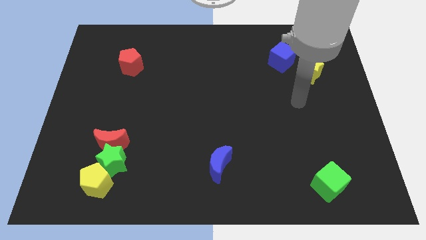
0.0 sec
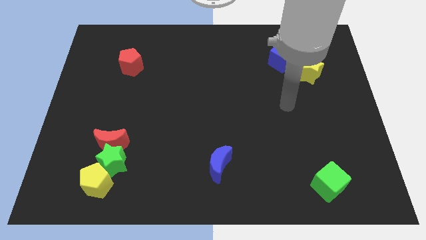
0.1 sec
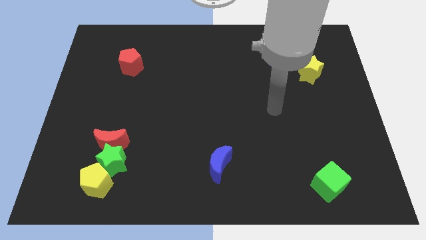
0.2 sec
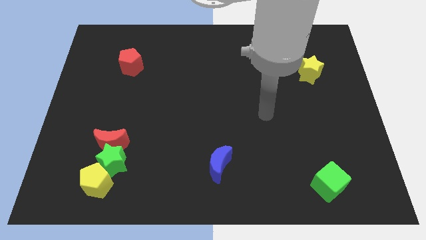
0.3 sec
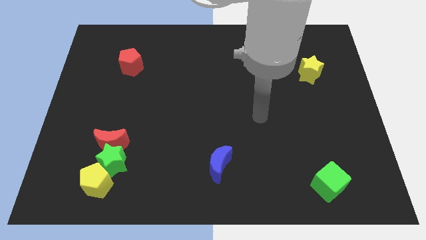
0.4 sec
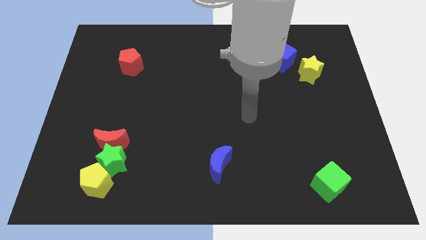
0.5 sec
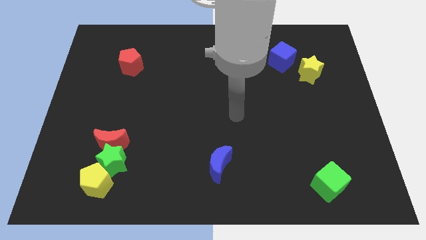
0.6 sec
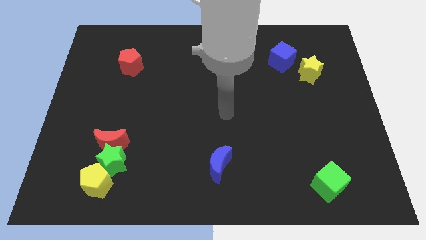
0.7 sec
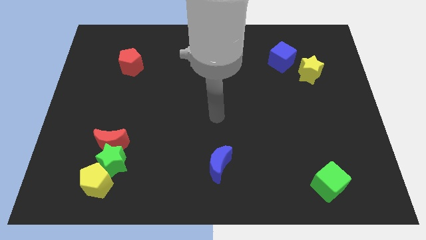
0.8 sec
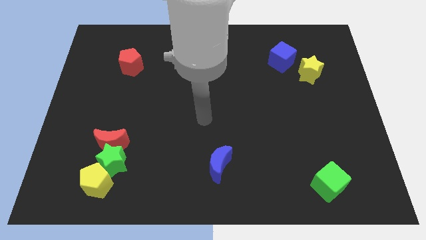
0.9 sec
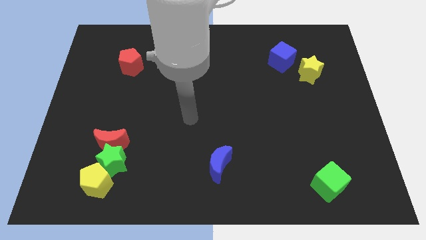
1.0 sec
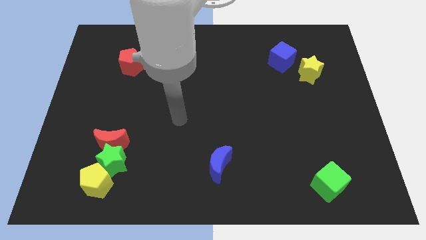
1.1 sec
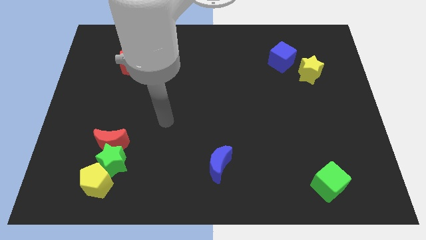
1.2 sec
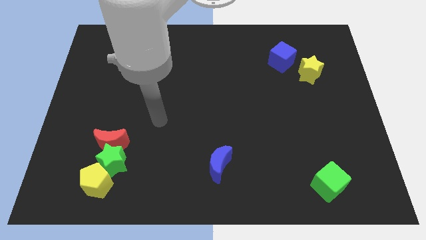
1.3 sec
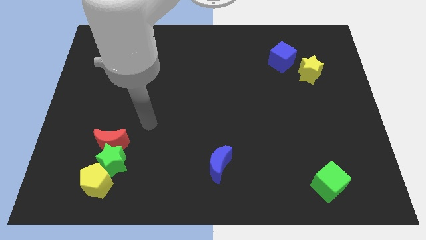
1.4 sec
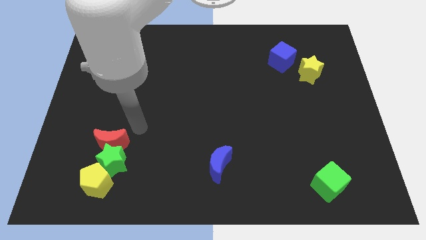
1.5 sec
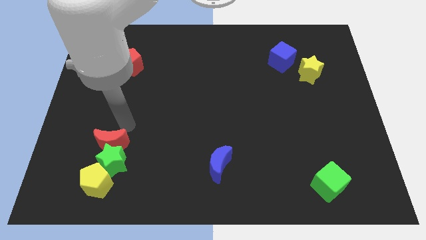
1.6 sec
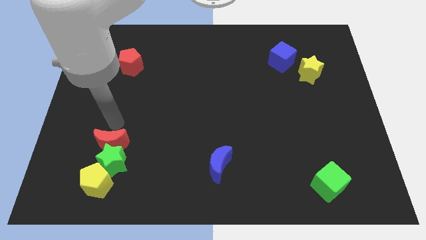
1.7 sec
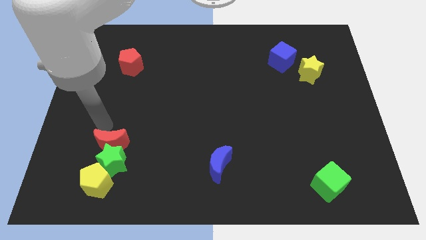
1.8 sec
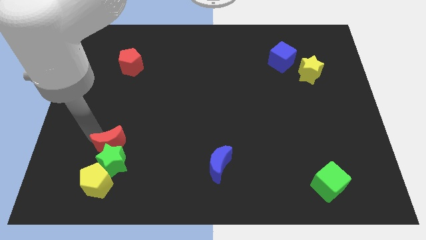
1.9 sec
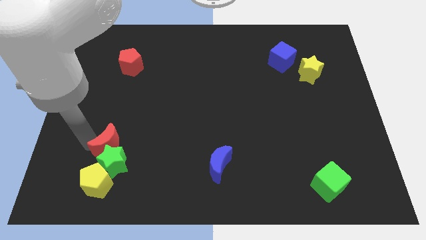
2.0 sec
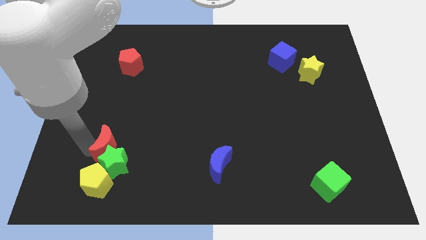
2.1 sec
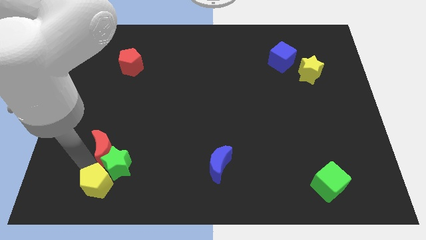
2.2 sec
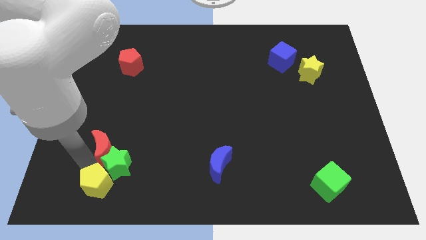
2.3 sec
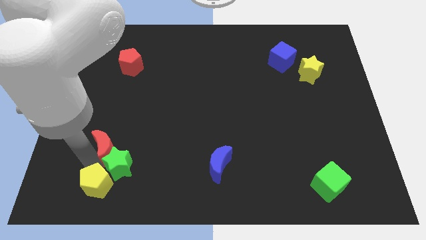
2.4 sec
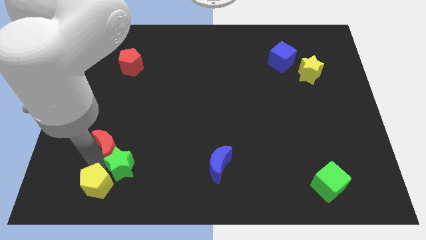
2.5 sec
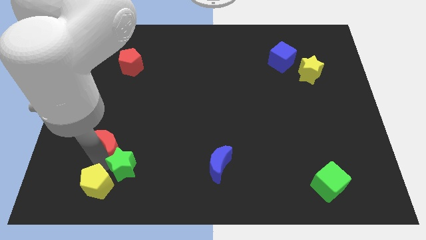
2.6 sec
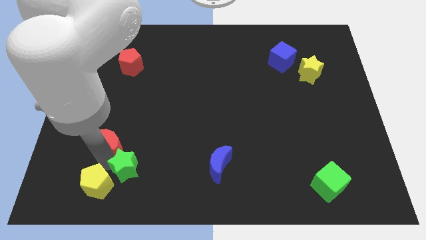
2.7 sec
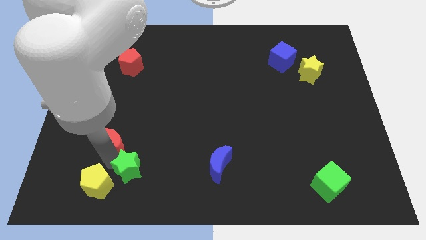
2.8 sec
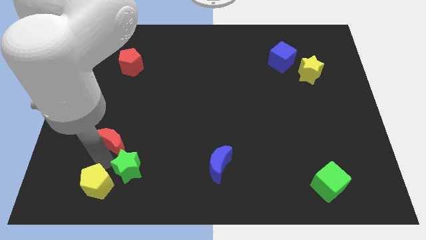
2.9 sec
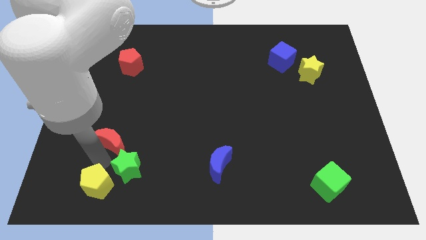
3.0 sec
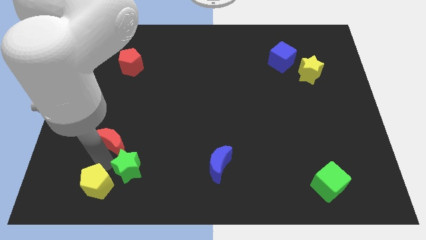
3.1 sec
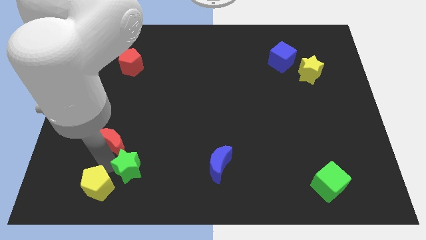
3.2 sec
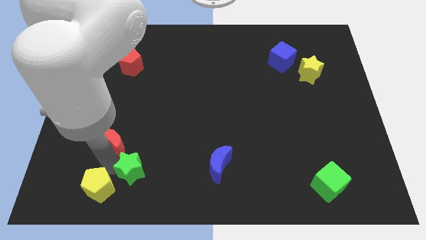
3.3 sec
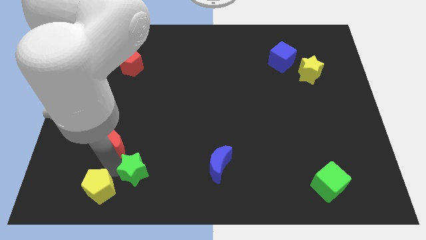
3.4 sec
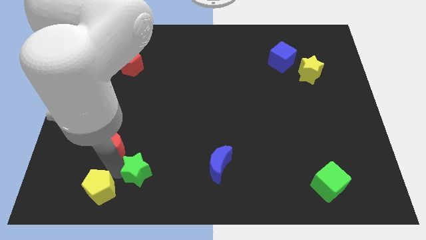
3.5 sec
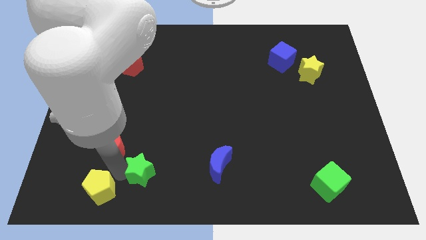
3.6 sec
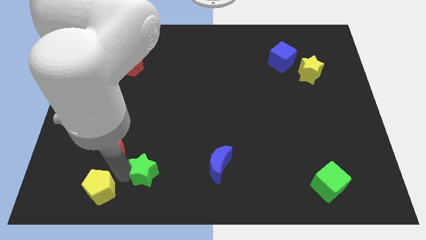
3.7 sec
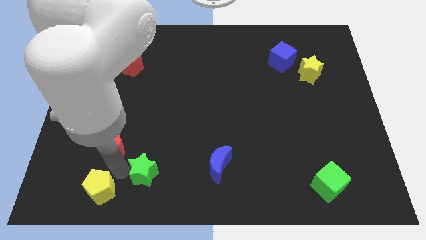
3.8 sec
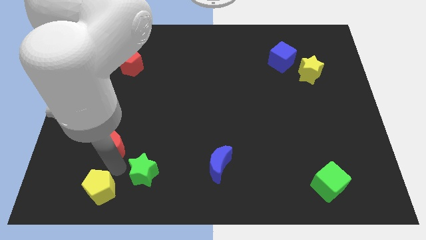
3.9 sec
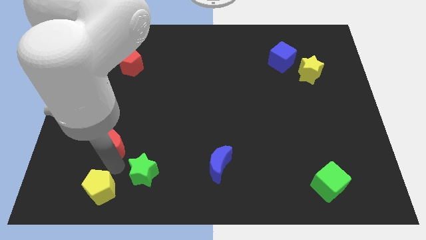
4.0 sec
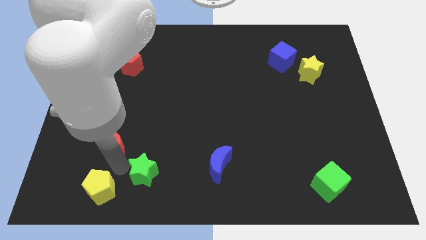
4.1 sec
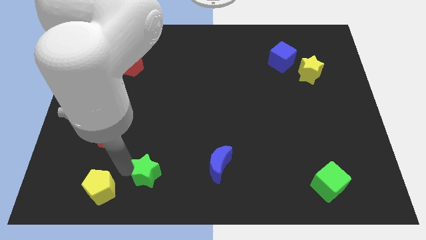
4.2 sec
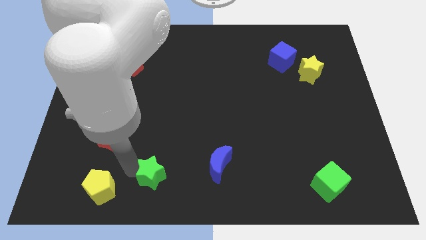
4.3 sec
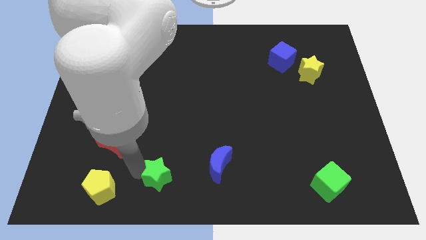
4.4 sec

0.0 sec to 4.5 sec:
move the green star away from the red moon and yellow pentagon

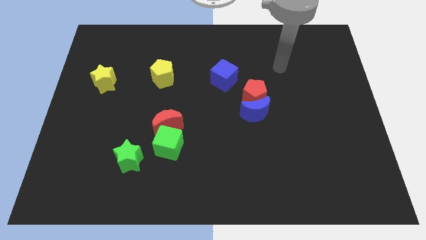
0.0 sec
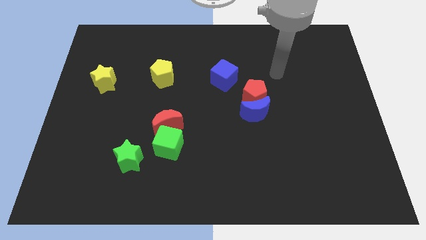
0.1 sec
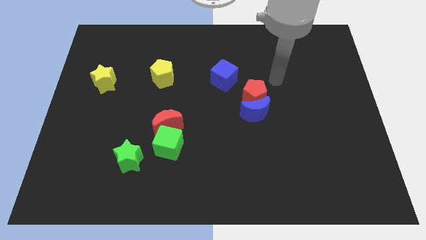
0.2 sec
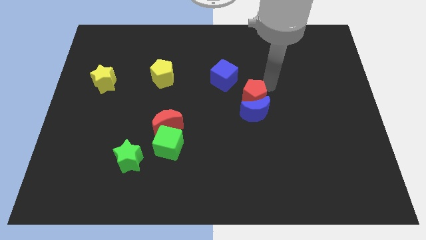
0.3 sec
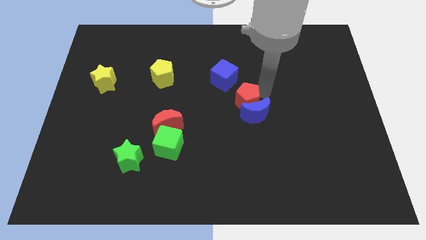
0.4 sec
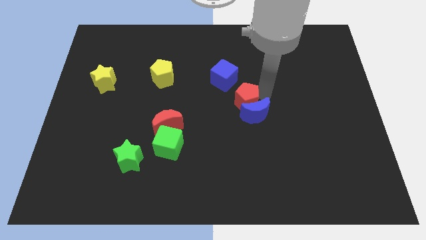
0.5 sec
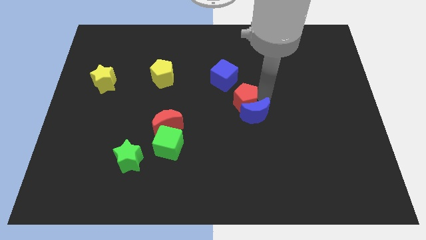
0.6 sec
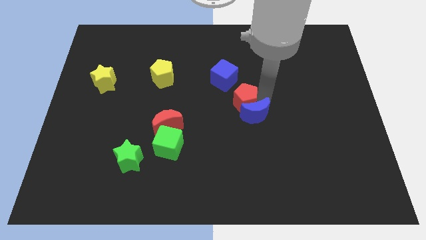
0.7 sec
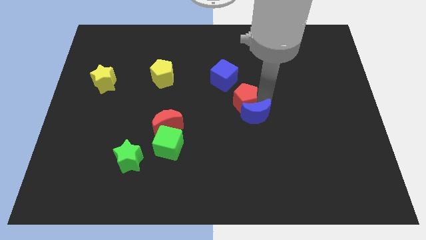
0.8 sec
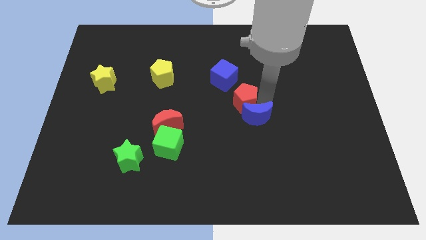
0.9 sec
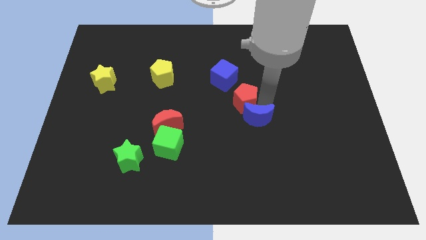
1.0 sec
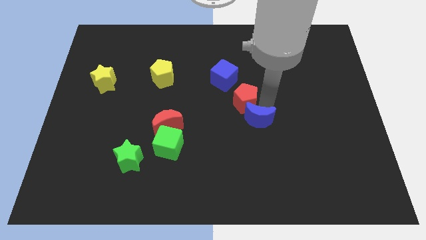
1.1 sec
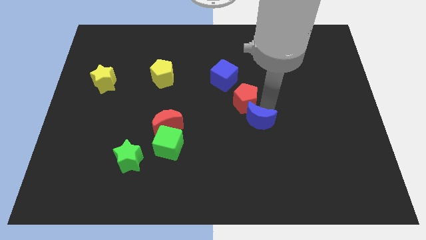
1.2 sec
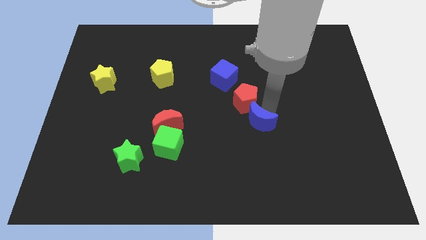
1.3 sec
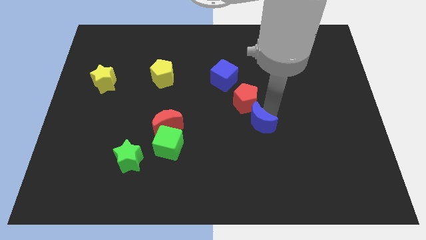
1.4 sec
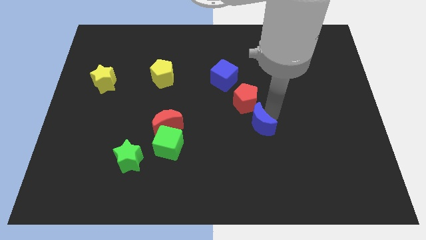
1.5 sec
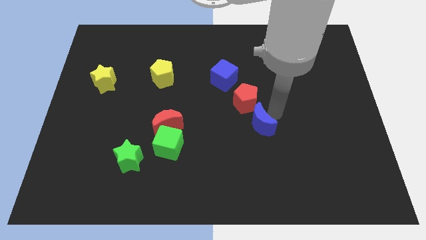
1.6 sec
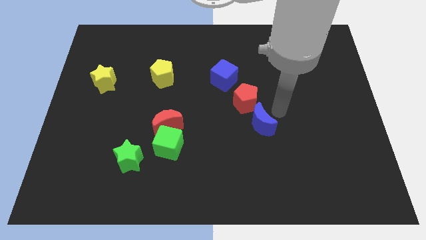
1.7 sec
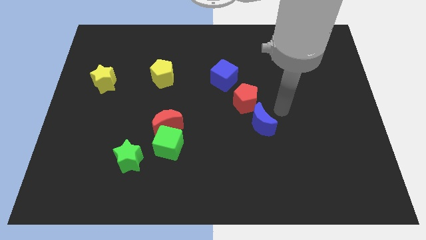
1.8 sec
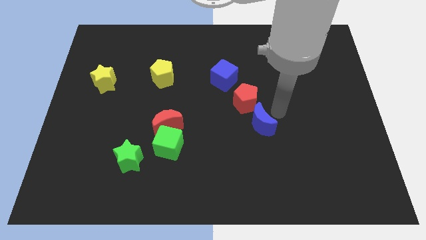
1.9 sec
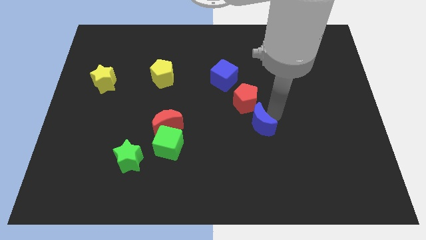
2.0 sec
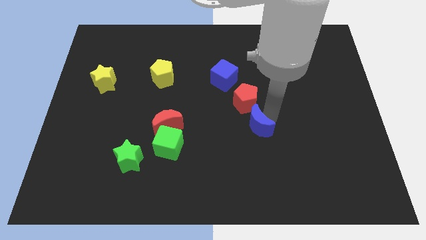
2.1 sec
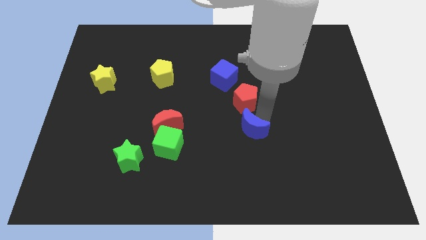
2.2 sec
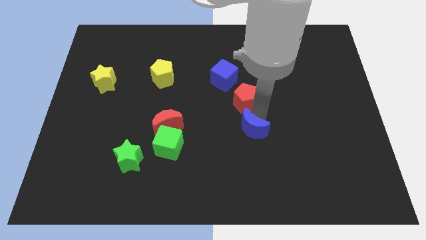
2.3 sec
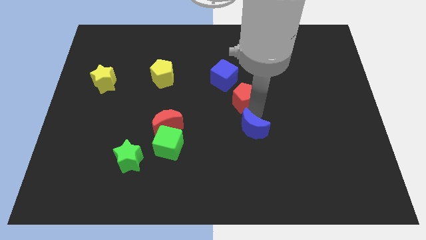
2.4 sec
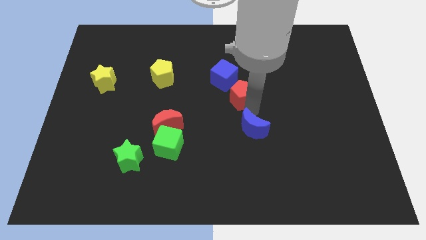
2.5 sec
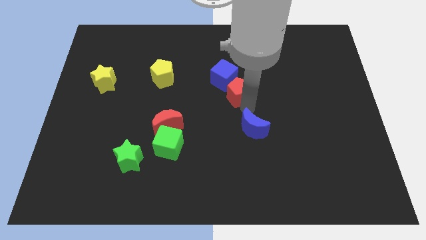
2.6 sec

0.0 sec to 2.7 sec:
pull the blue moon apart from the red pentagon

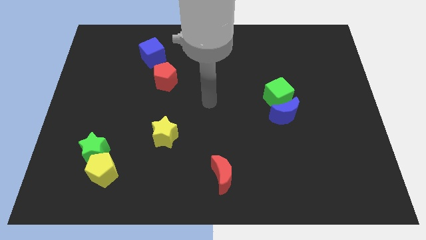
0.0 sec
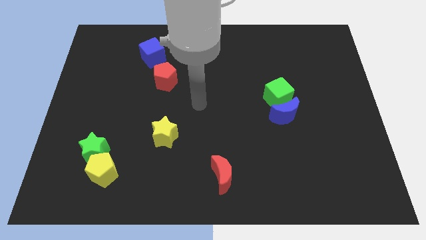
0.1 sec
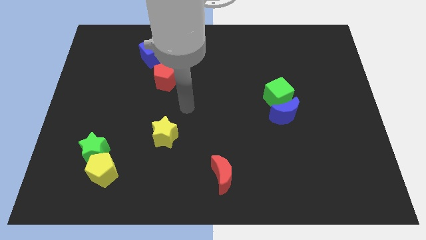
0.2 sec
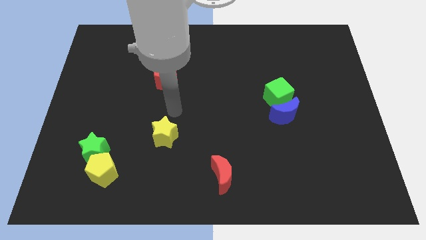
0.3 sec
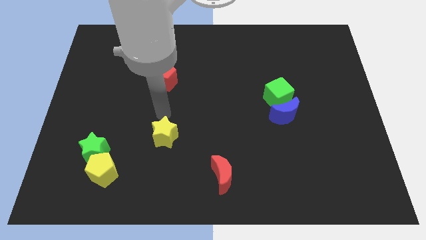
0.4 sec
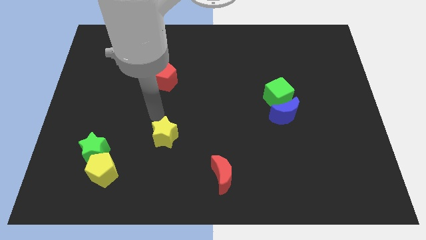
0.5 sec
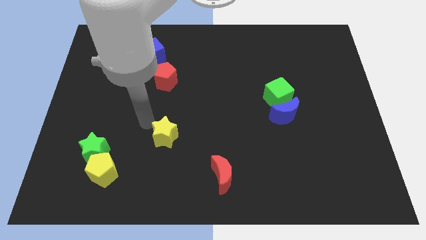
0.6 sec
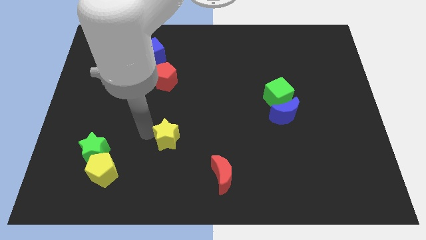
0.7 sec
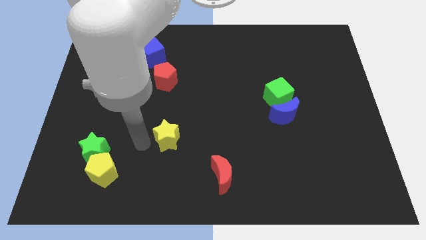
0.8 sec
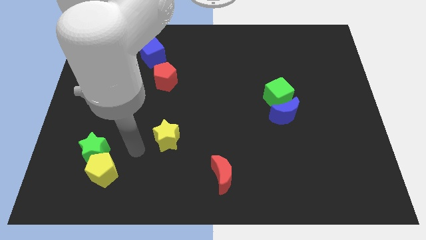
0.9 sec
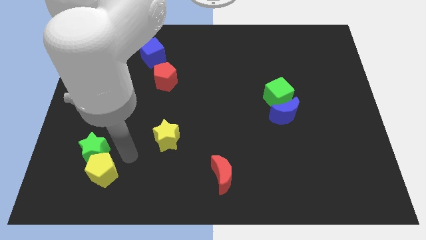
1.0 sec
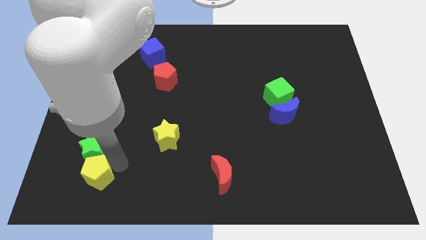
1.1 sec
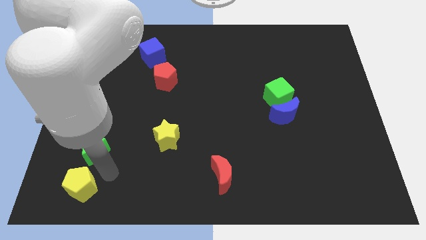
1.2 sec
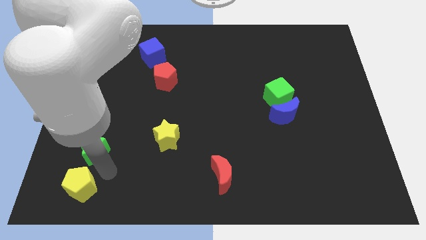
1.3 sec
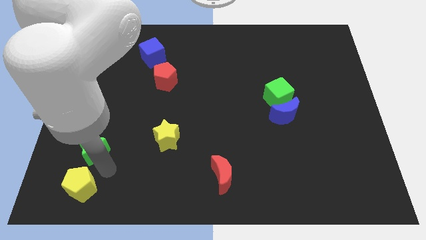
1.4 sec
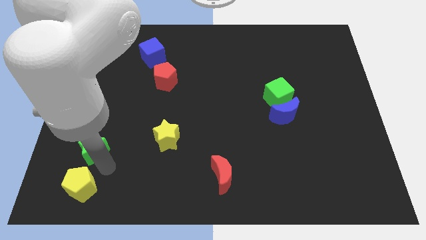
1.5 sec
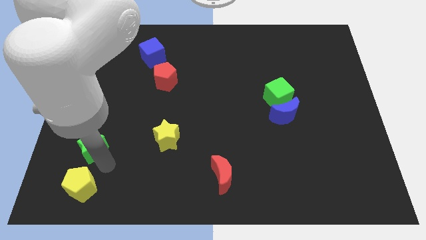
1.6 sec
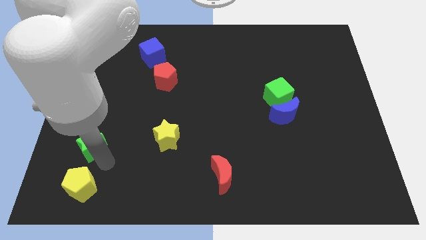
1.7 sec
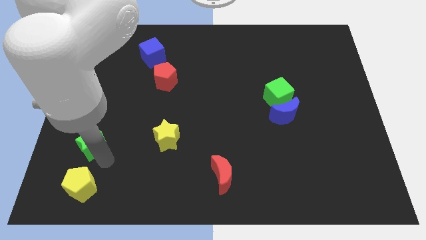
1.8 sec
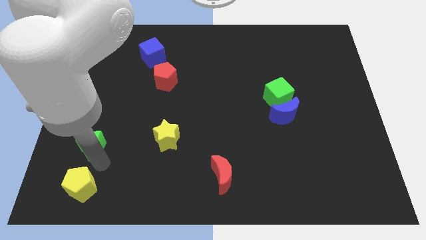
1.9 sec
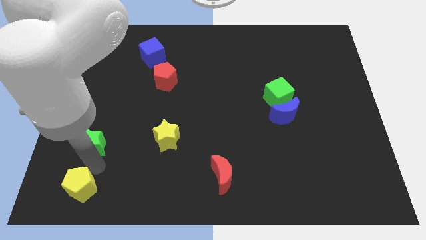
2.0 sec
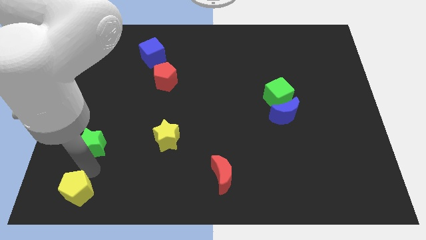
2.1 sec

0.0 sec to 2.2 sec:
move the green star away from the yellow pentagon
